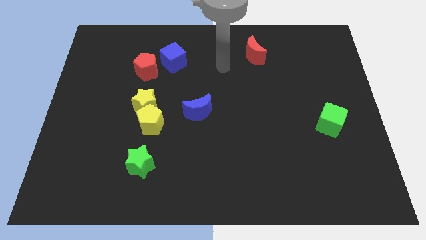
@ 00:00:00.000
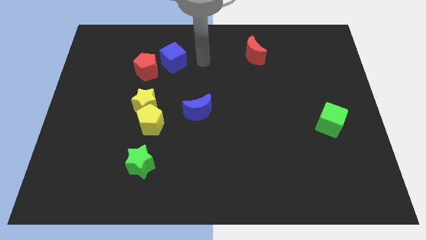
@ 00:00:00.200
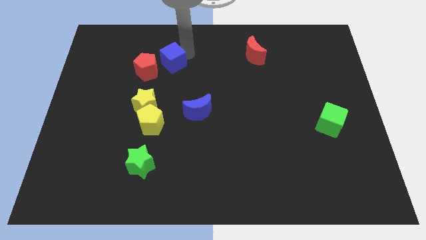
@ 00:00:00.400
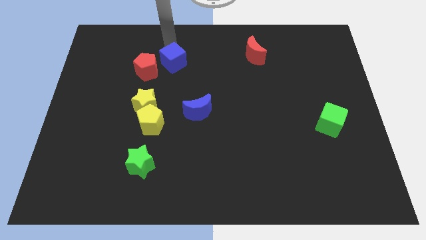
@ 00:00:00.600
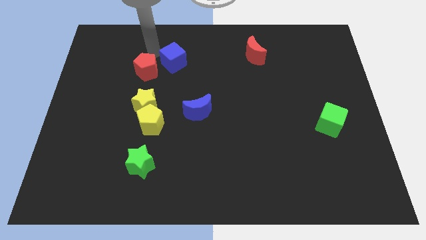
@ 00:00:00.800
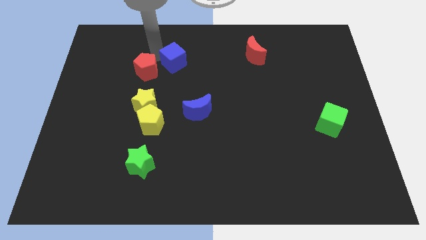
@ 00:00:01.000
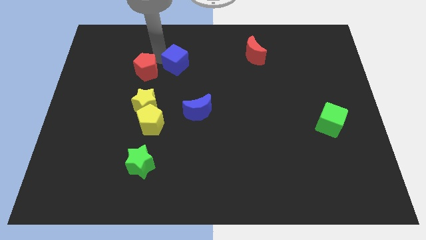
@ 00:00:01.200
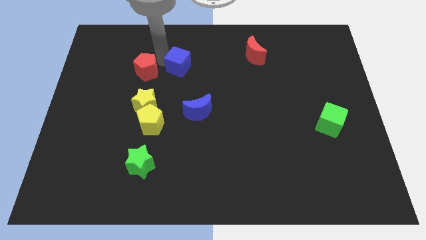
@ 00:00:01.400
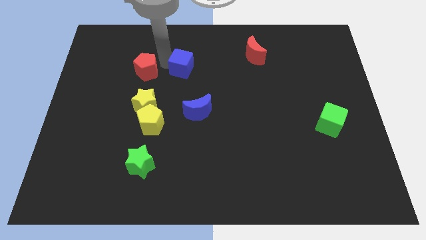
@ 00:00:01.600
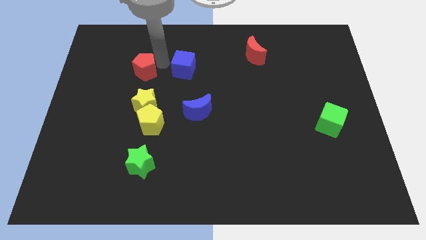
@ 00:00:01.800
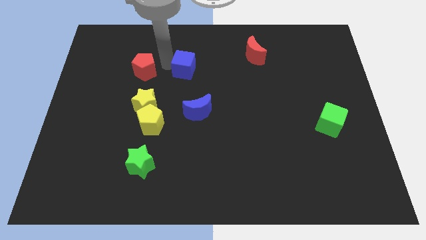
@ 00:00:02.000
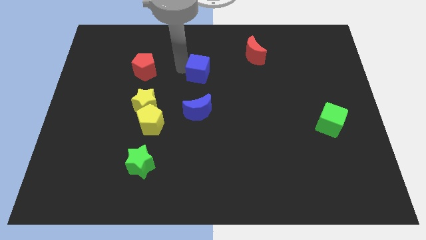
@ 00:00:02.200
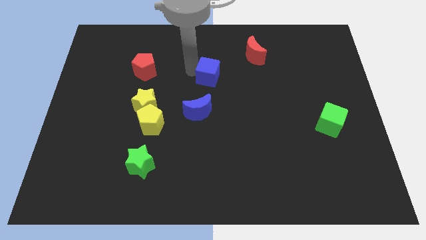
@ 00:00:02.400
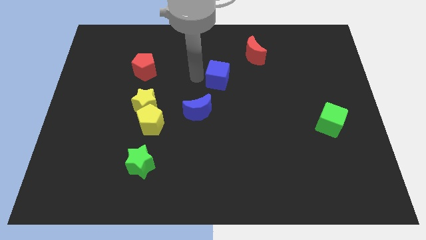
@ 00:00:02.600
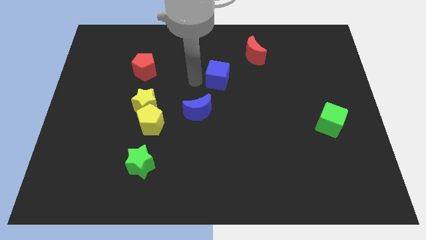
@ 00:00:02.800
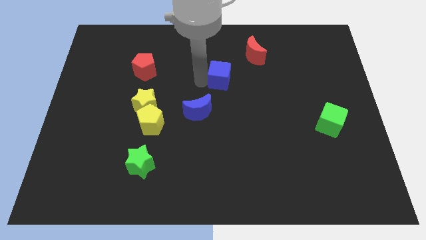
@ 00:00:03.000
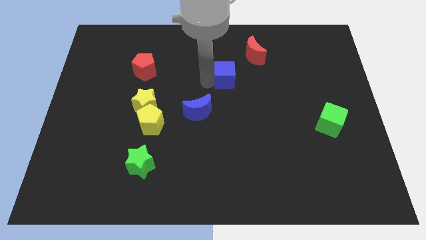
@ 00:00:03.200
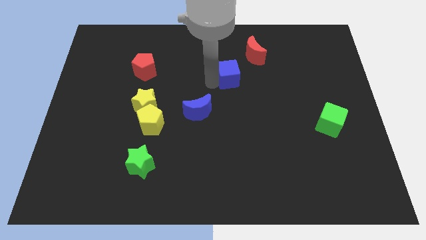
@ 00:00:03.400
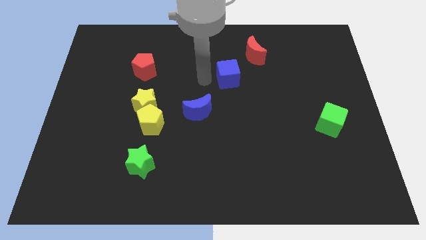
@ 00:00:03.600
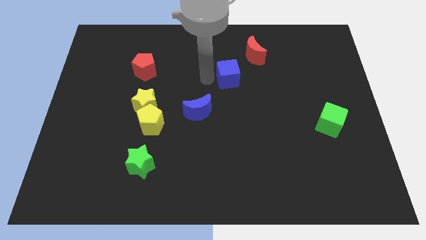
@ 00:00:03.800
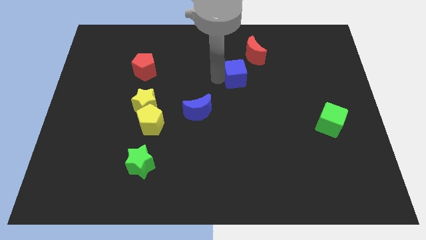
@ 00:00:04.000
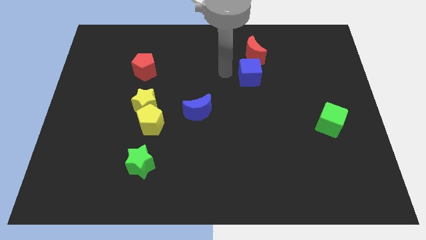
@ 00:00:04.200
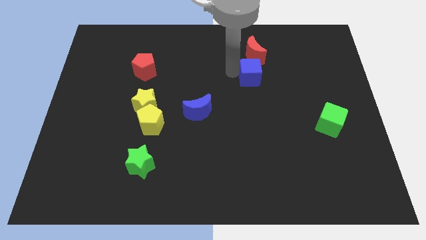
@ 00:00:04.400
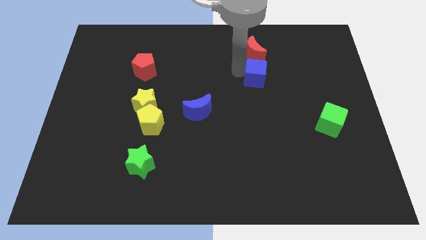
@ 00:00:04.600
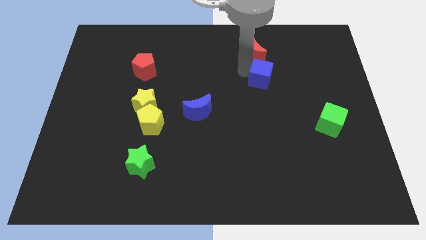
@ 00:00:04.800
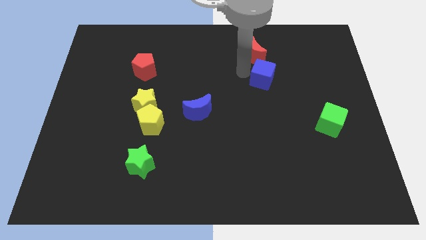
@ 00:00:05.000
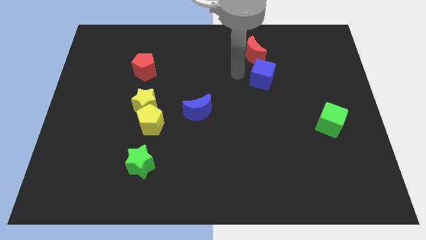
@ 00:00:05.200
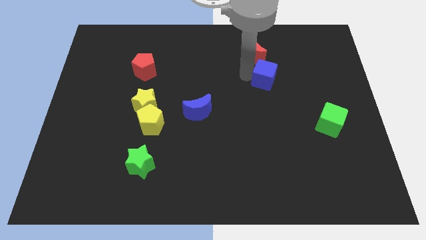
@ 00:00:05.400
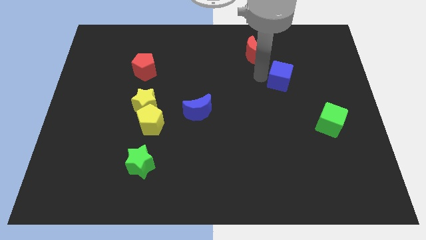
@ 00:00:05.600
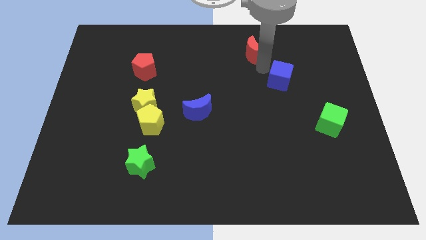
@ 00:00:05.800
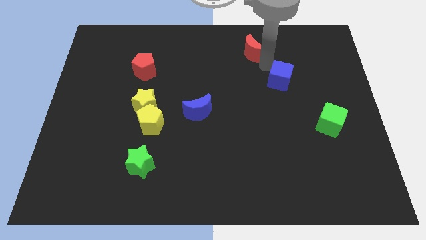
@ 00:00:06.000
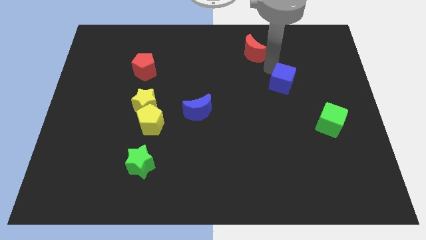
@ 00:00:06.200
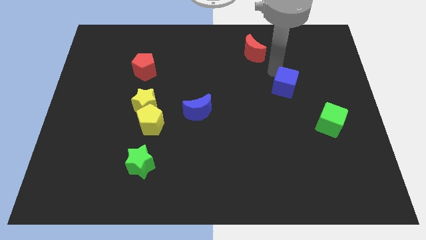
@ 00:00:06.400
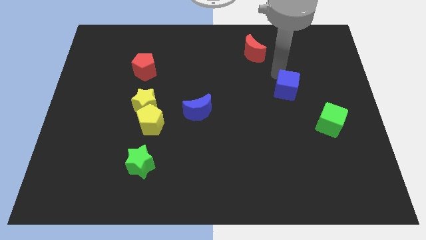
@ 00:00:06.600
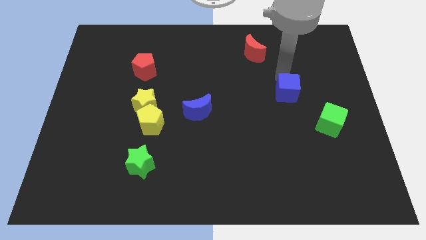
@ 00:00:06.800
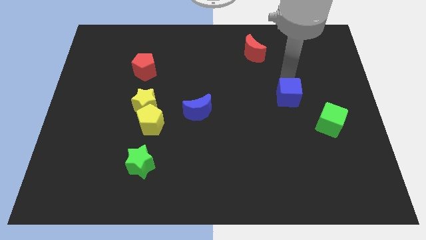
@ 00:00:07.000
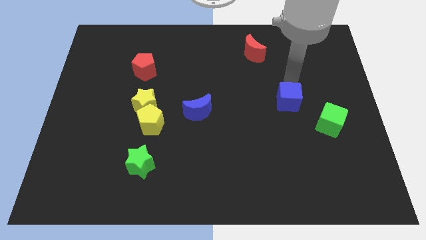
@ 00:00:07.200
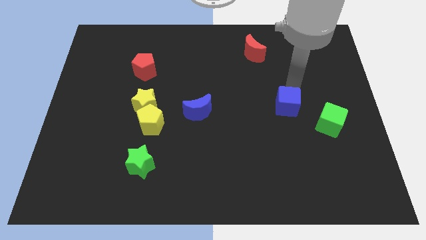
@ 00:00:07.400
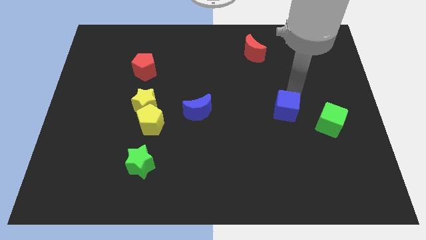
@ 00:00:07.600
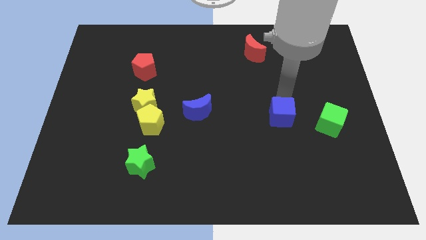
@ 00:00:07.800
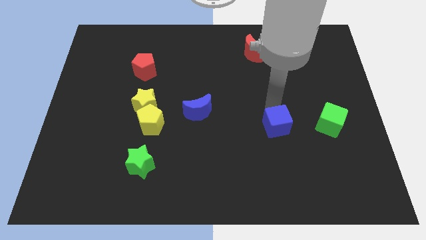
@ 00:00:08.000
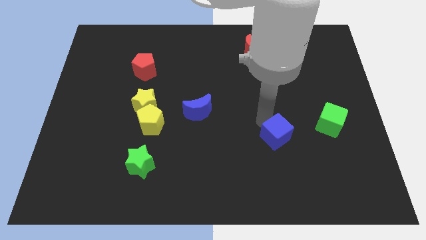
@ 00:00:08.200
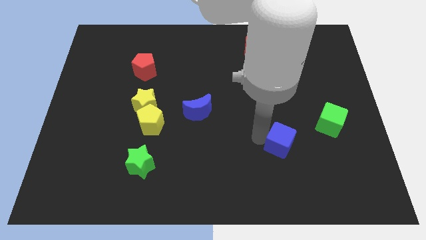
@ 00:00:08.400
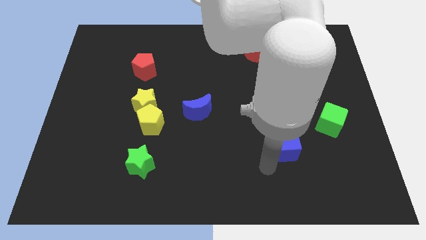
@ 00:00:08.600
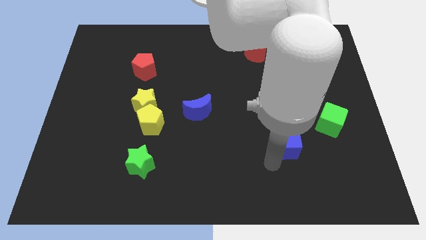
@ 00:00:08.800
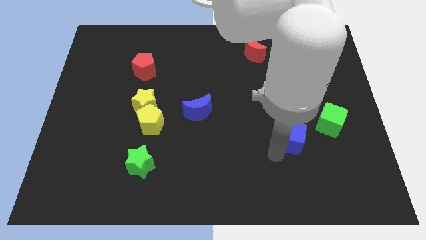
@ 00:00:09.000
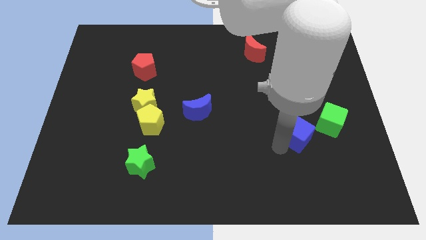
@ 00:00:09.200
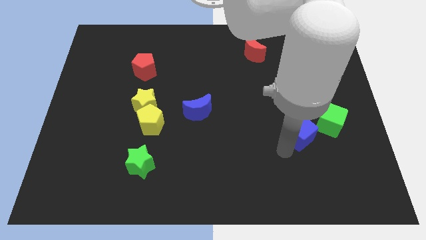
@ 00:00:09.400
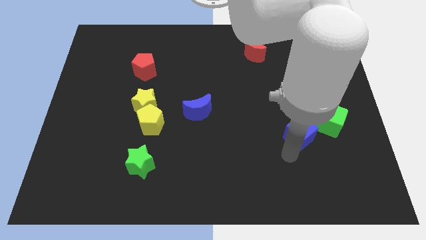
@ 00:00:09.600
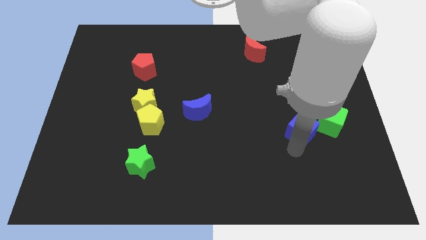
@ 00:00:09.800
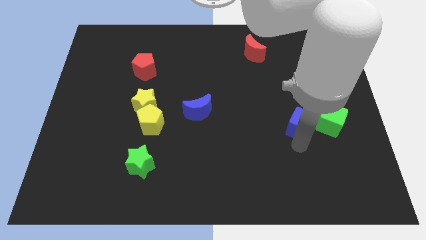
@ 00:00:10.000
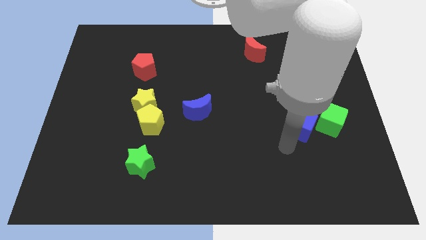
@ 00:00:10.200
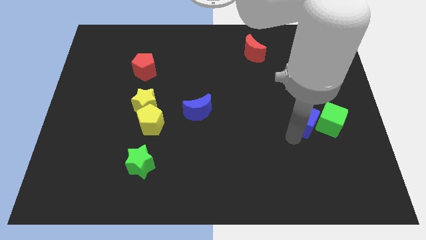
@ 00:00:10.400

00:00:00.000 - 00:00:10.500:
slide the blue cube to the green cube

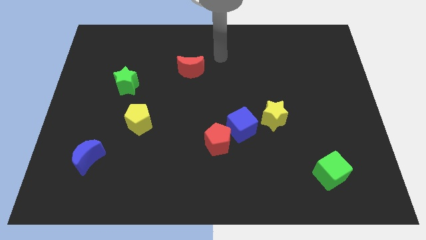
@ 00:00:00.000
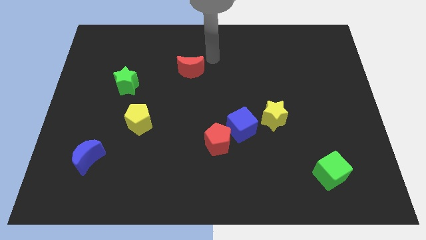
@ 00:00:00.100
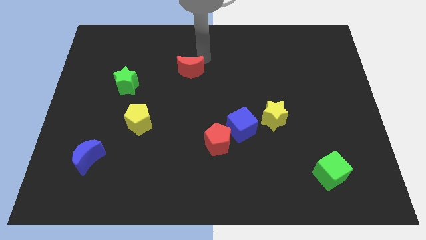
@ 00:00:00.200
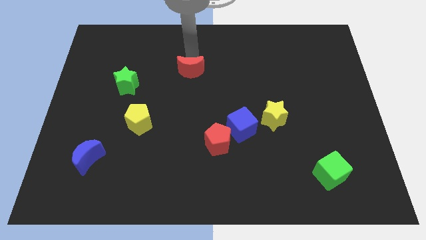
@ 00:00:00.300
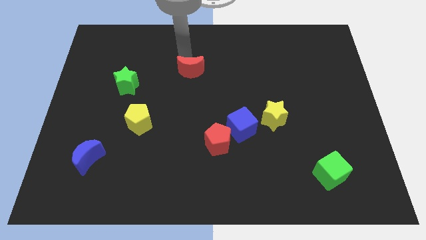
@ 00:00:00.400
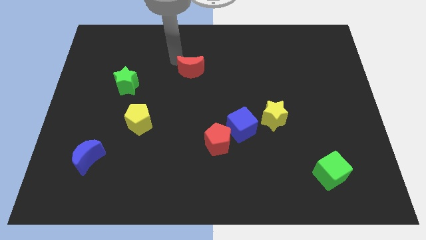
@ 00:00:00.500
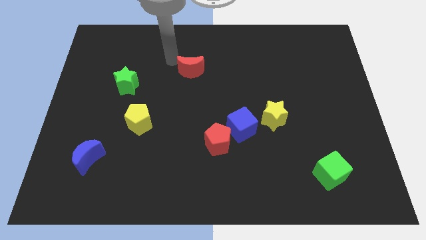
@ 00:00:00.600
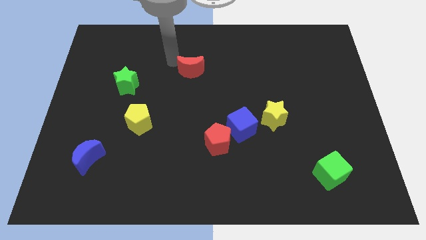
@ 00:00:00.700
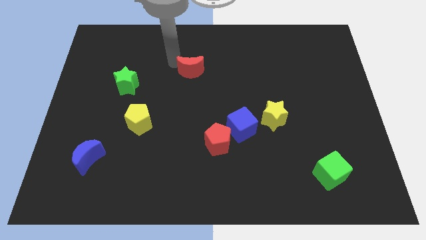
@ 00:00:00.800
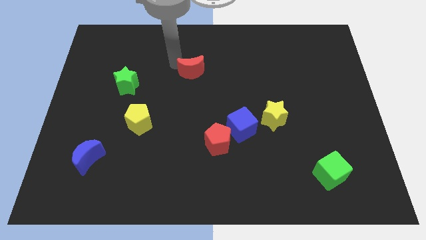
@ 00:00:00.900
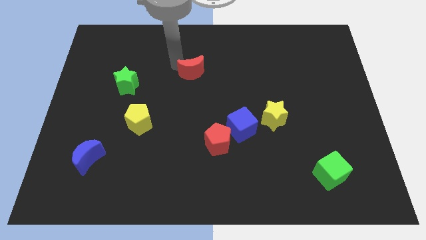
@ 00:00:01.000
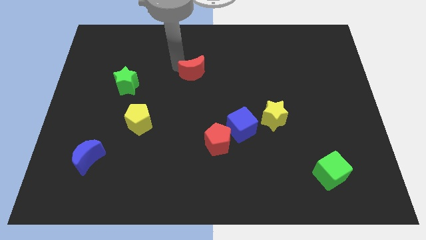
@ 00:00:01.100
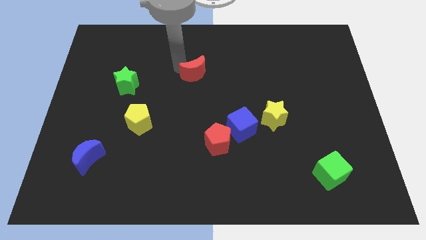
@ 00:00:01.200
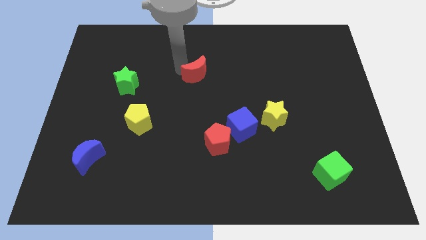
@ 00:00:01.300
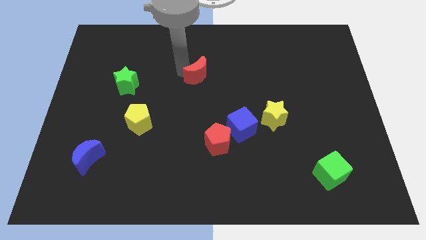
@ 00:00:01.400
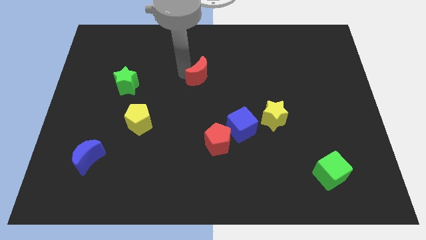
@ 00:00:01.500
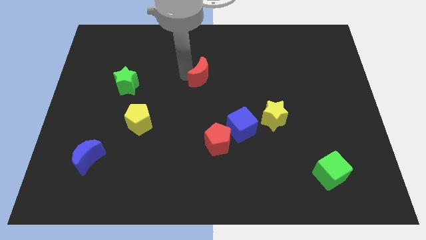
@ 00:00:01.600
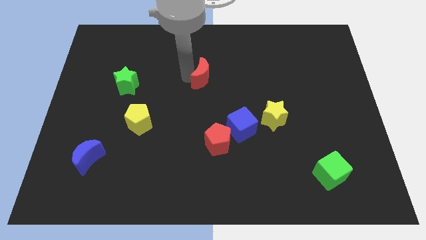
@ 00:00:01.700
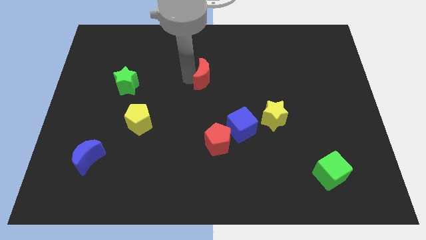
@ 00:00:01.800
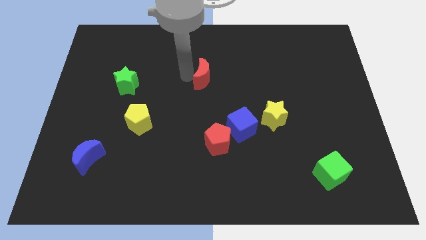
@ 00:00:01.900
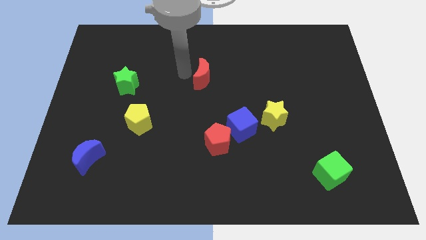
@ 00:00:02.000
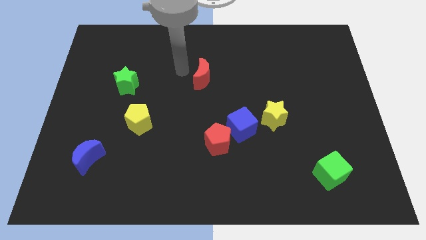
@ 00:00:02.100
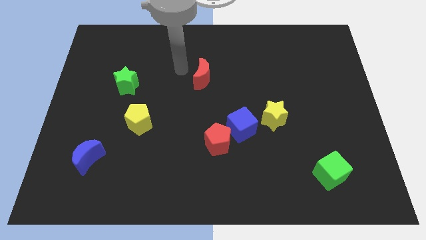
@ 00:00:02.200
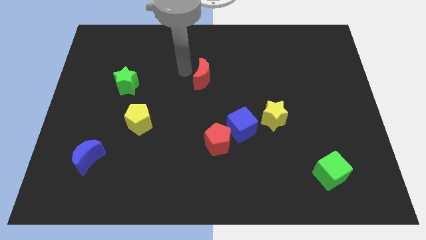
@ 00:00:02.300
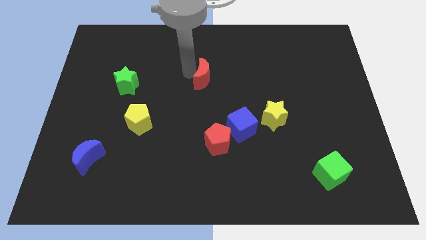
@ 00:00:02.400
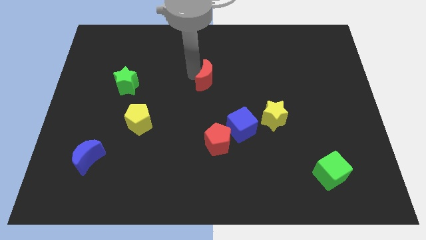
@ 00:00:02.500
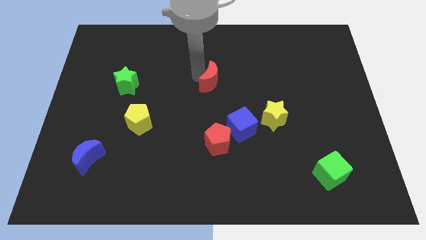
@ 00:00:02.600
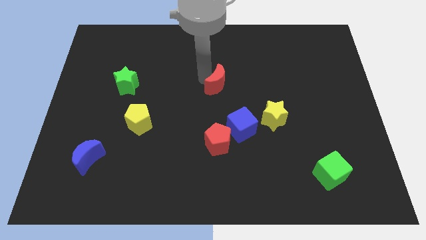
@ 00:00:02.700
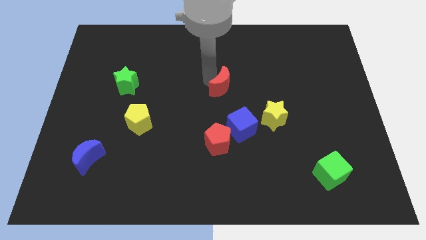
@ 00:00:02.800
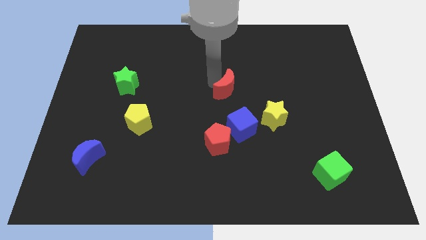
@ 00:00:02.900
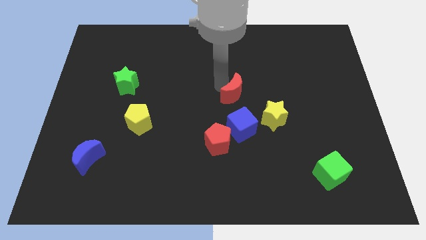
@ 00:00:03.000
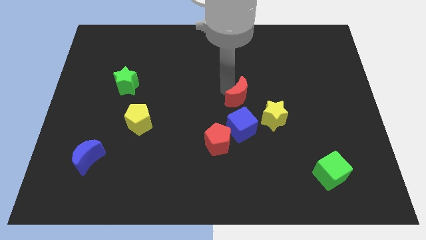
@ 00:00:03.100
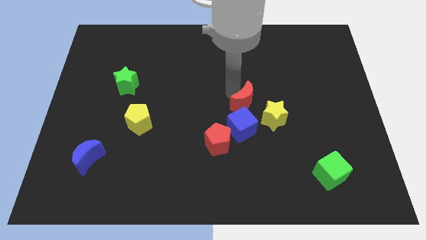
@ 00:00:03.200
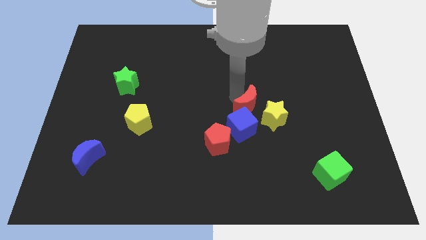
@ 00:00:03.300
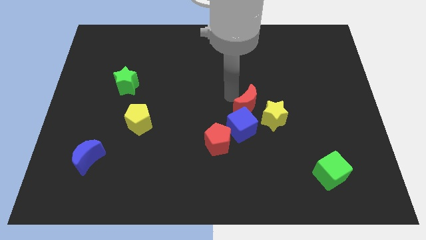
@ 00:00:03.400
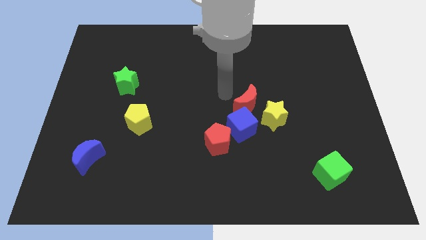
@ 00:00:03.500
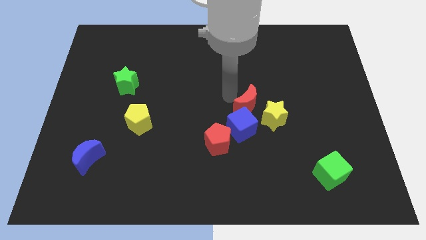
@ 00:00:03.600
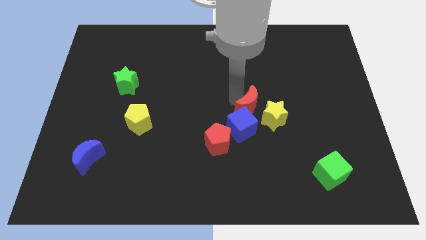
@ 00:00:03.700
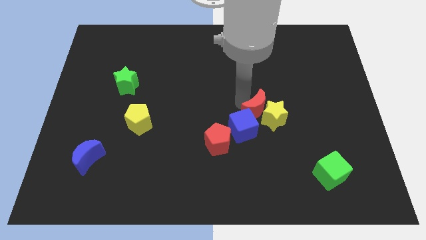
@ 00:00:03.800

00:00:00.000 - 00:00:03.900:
put the red moon to the yellow star
